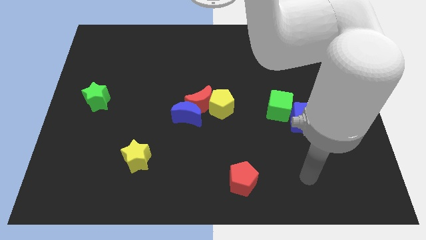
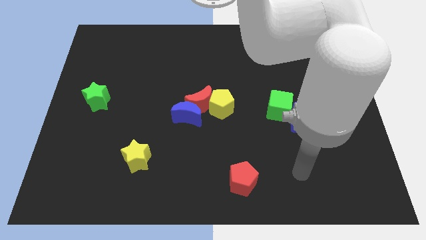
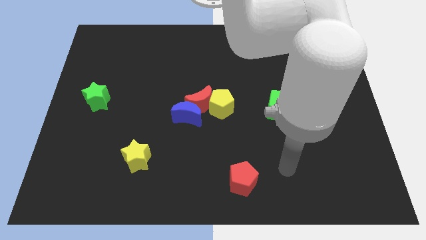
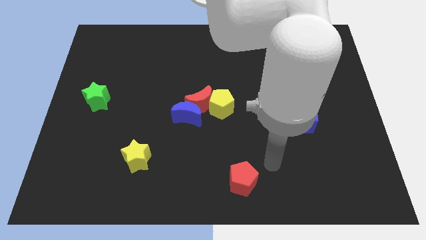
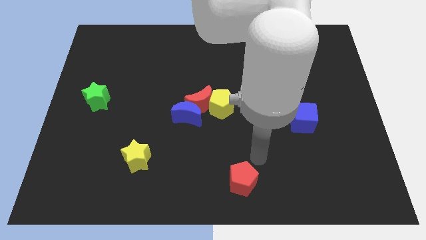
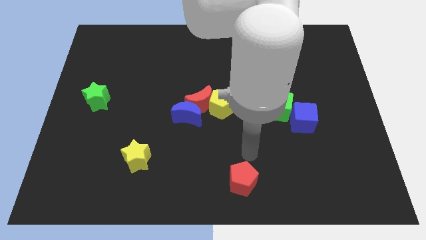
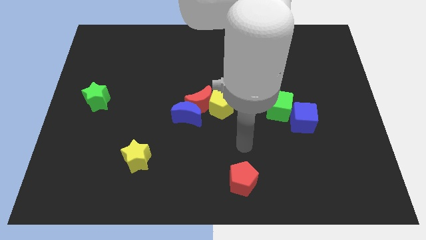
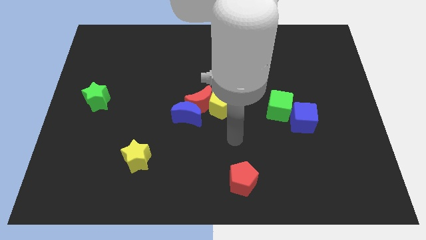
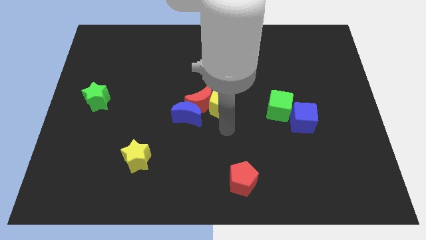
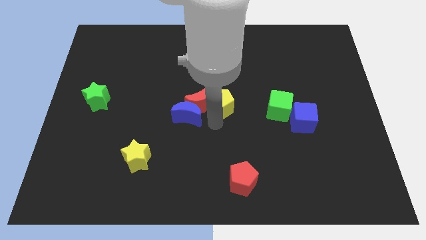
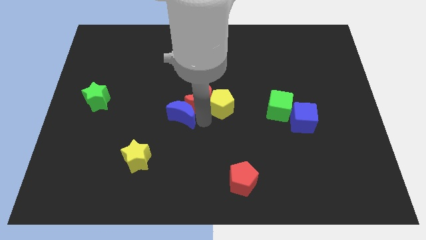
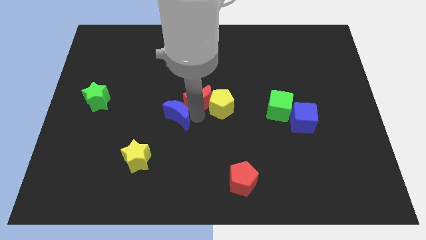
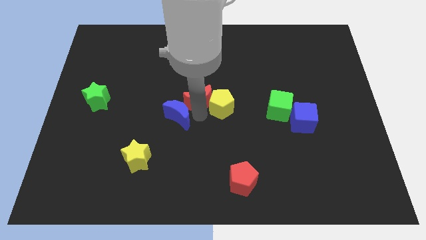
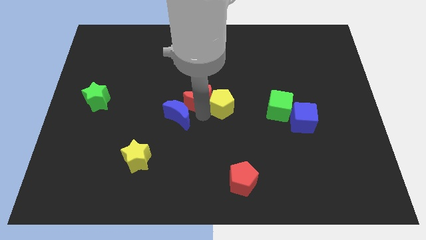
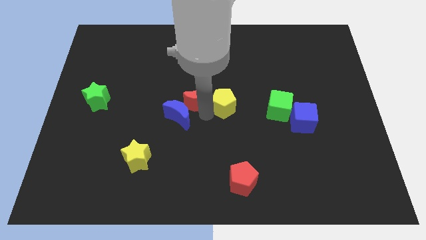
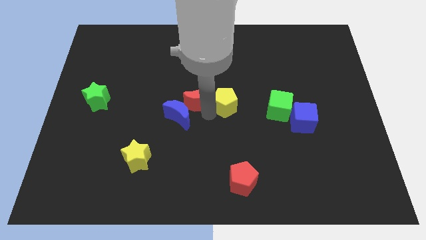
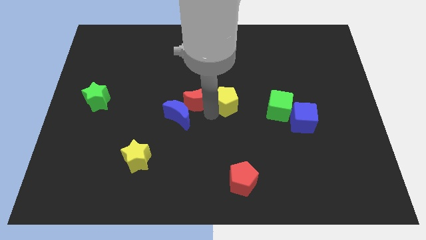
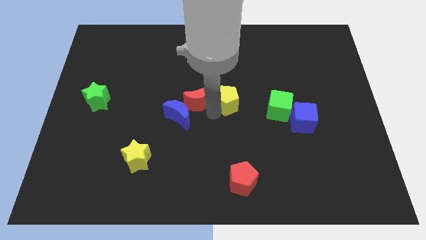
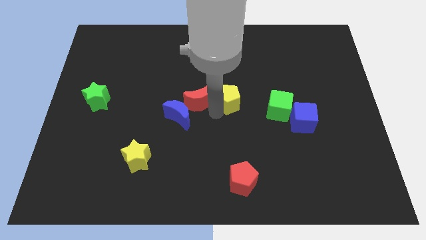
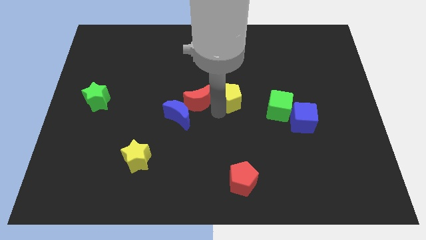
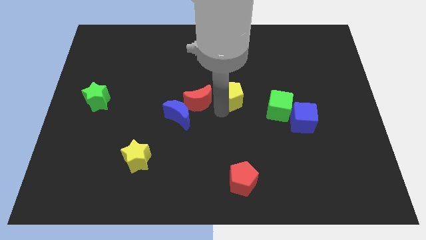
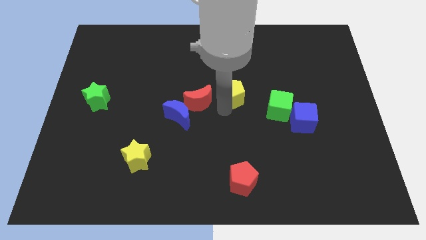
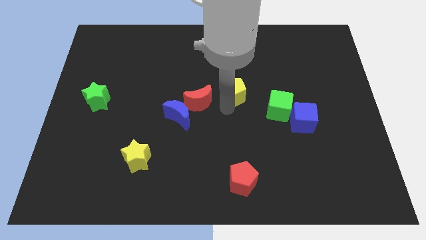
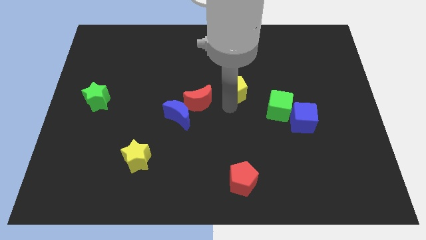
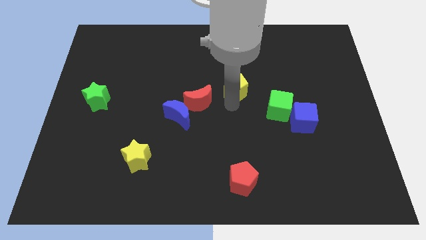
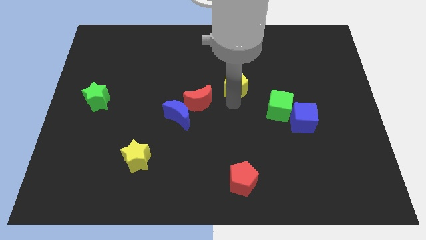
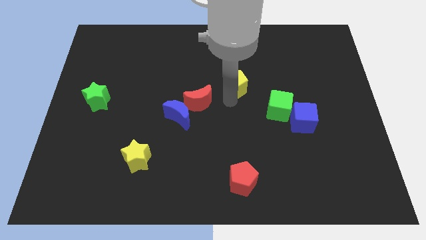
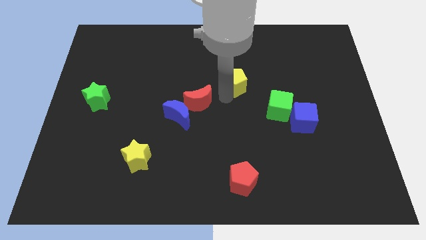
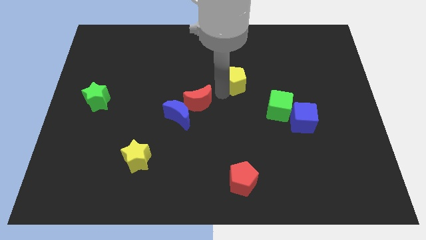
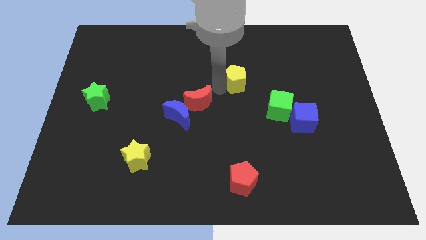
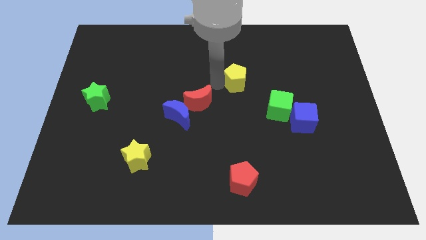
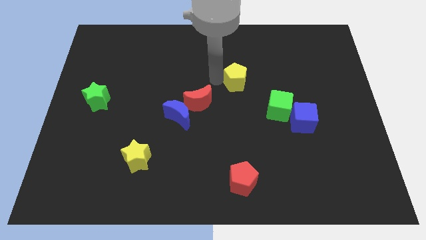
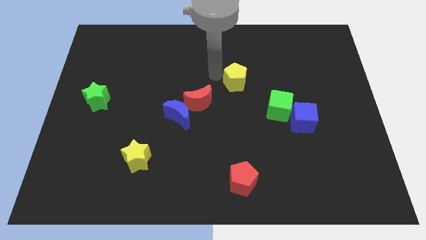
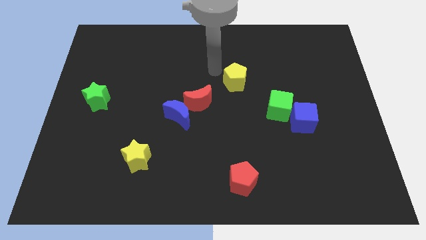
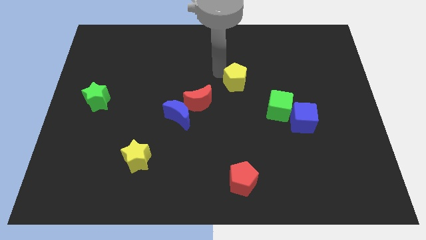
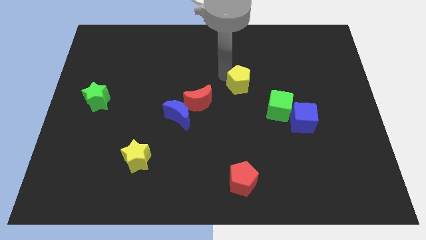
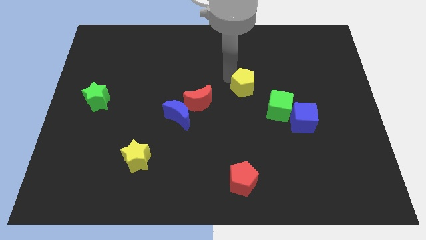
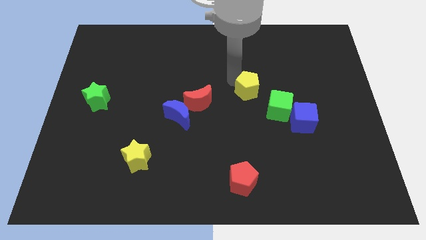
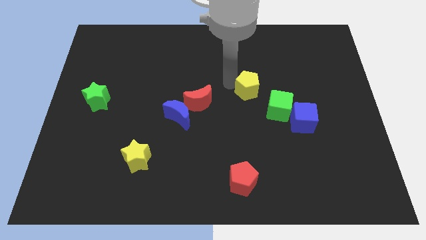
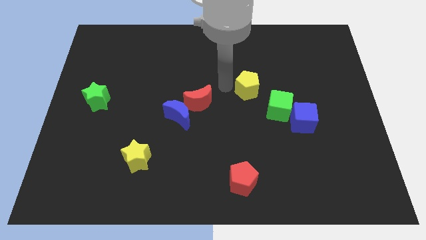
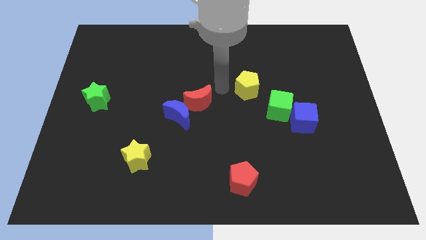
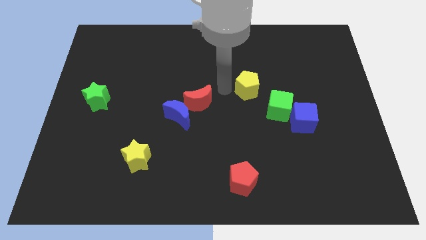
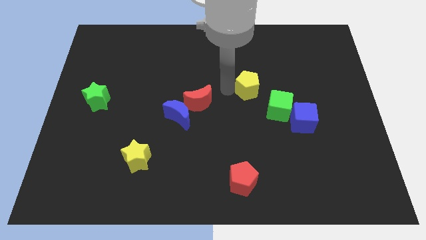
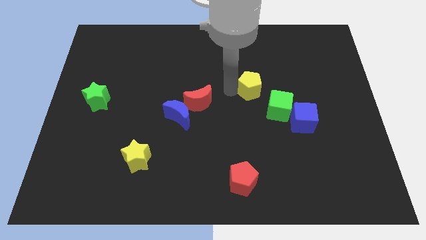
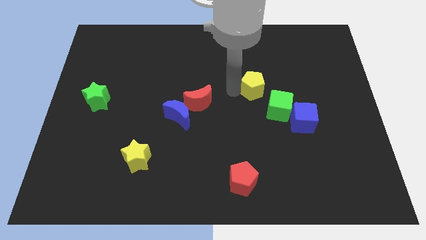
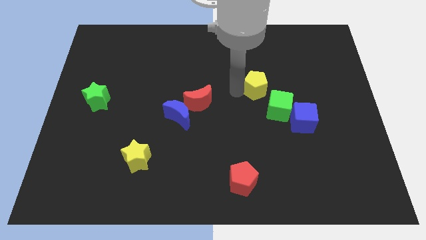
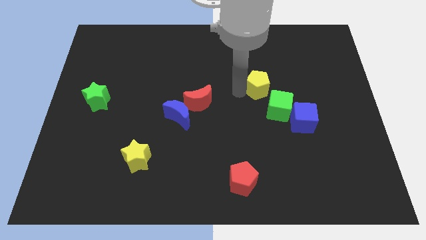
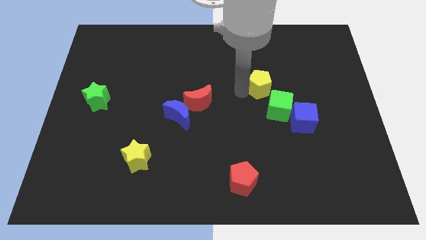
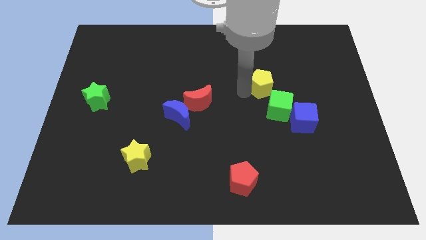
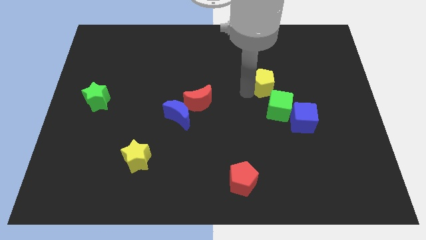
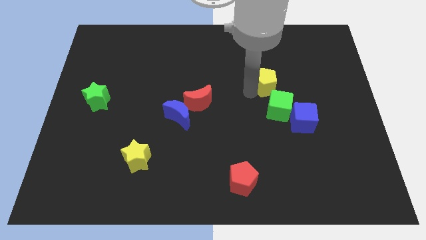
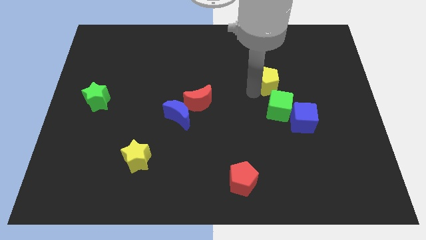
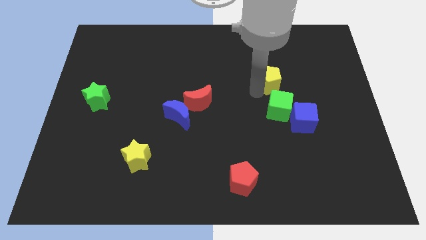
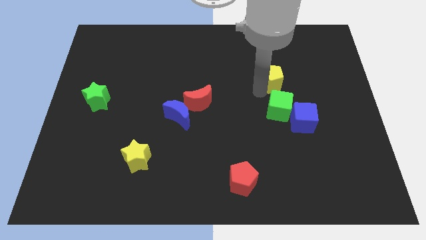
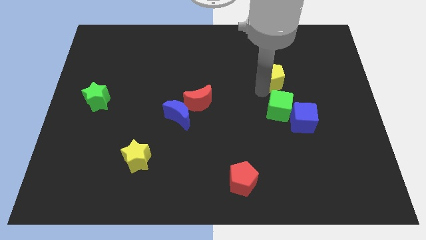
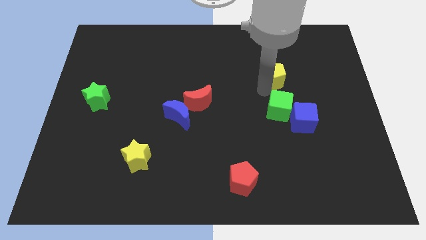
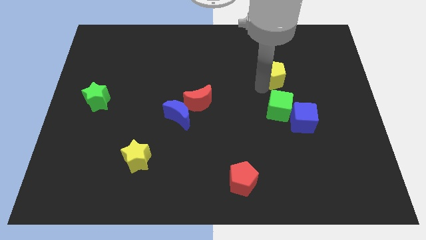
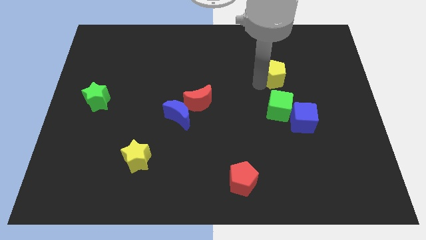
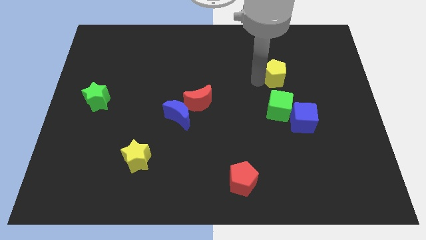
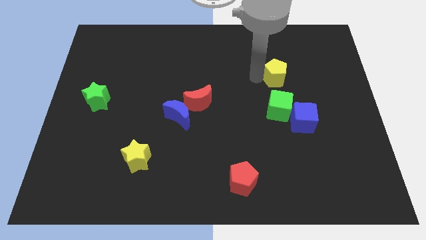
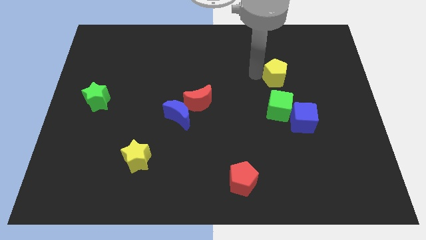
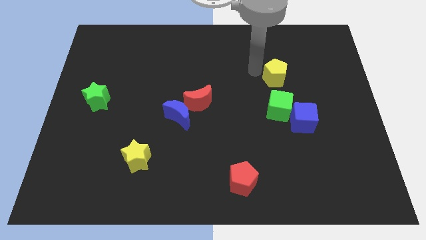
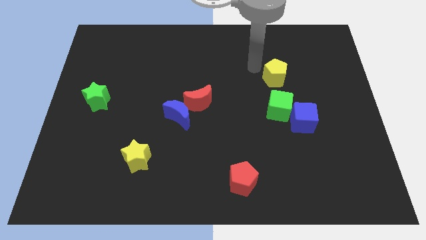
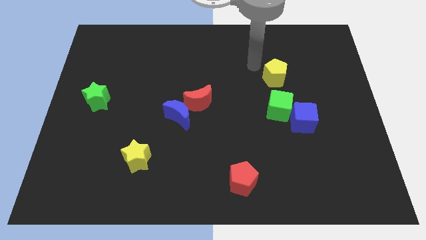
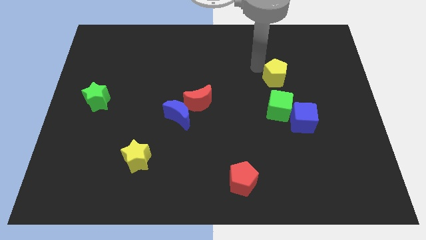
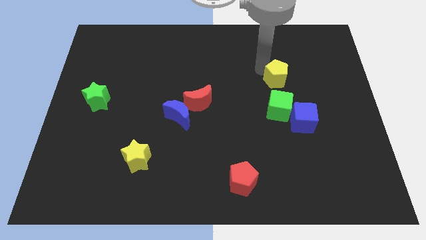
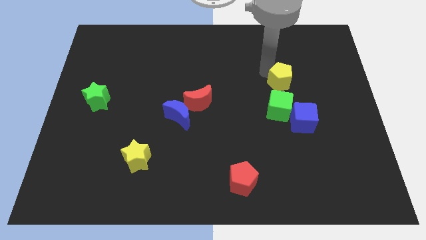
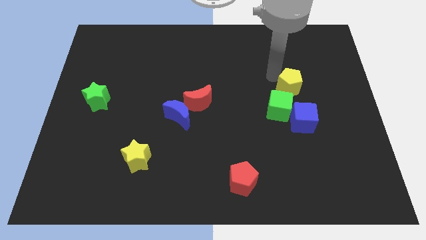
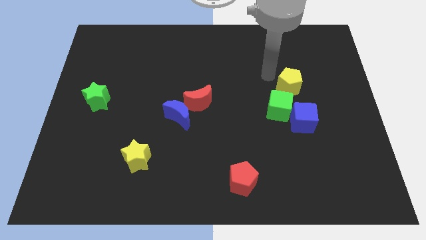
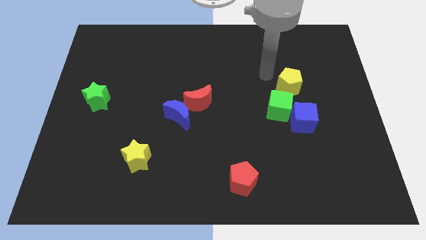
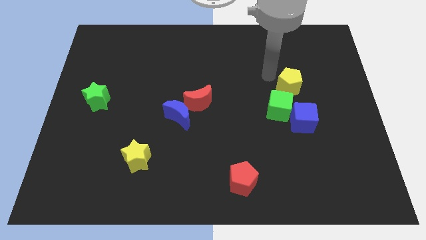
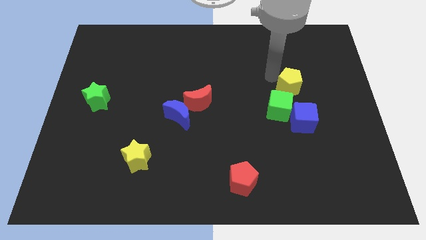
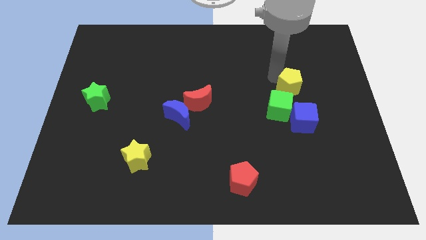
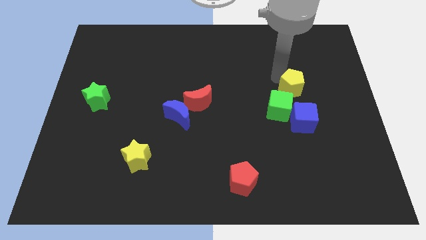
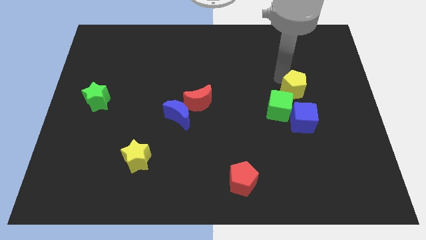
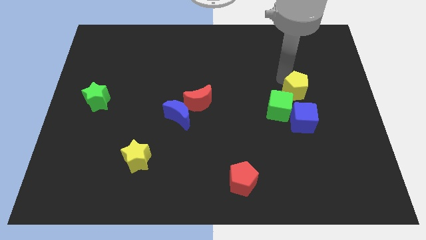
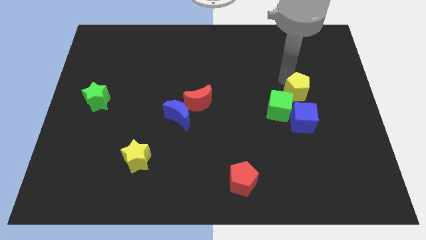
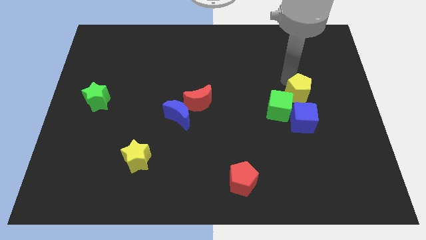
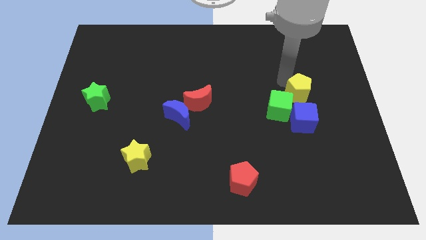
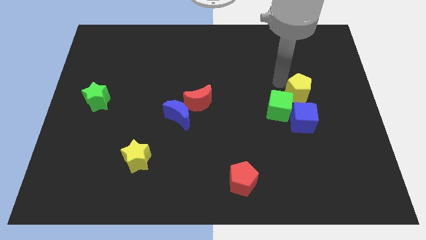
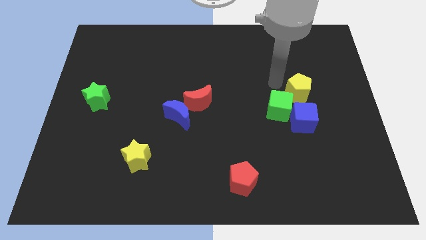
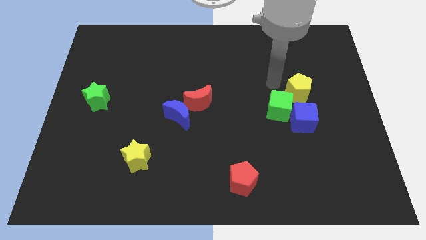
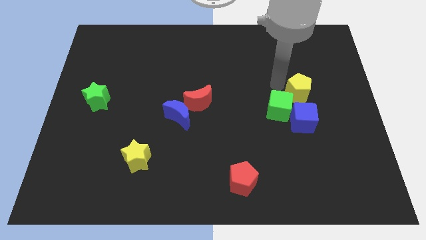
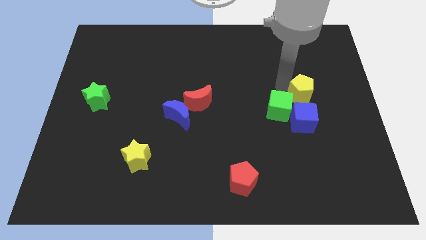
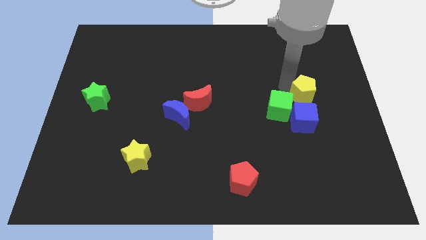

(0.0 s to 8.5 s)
put the yellow pentagon to the right of the green cube
